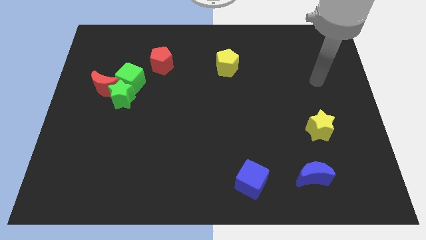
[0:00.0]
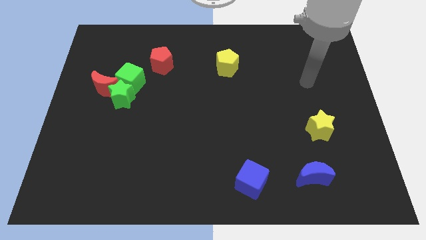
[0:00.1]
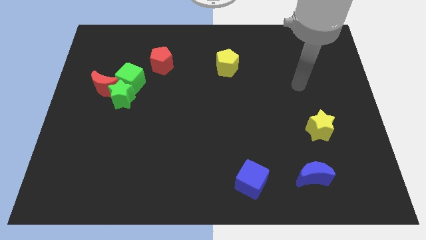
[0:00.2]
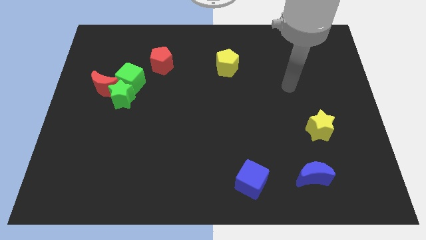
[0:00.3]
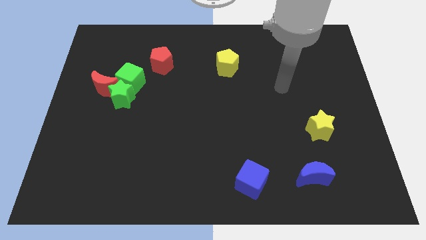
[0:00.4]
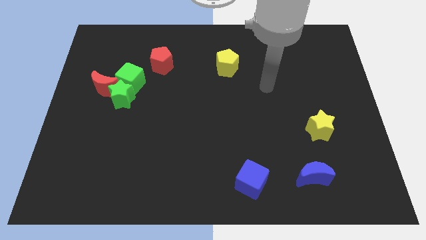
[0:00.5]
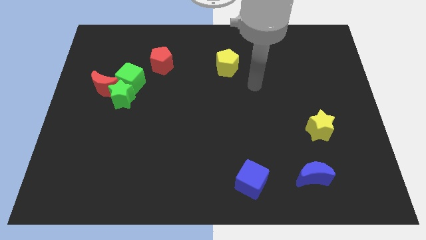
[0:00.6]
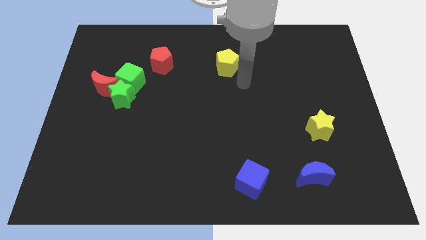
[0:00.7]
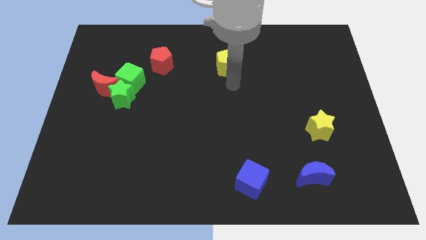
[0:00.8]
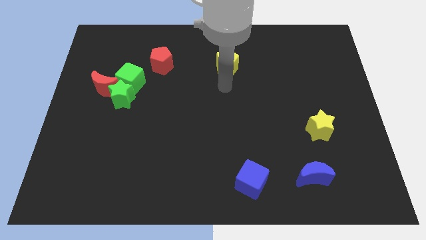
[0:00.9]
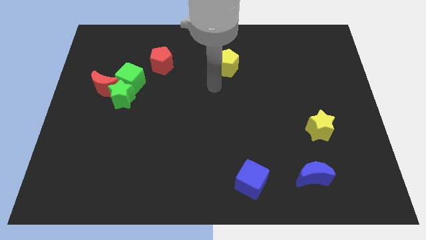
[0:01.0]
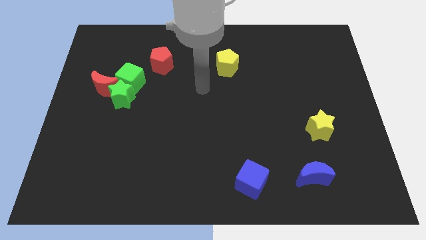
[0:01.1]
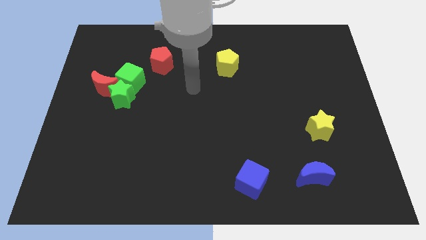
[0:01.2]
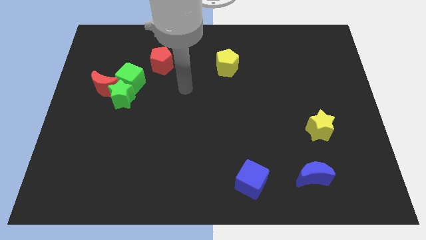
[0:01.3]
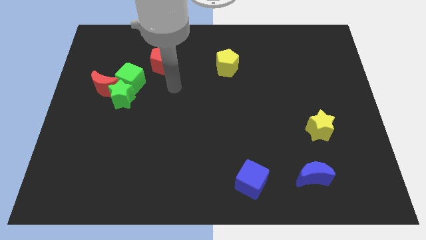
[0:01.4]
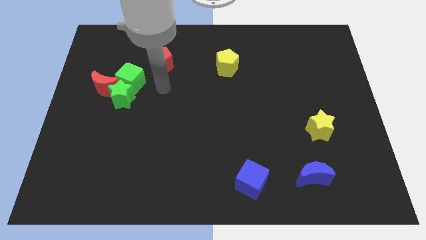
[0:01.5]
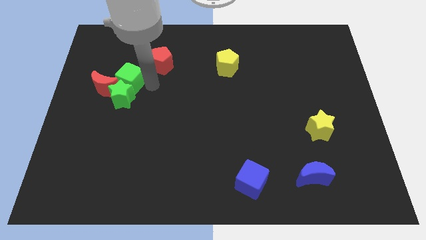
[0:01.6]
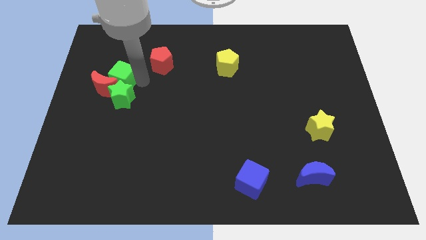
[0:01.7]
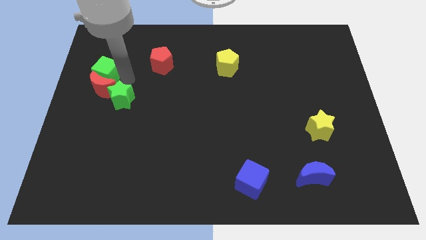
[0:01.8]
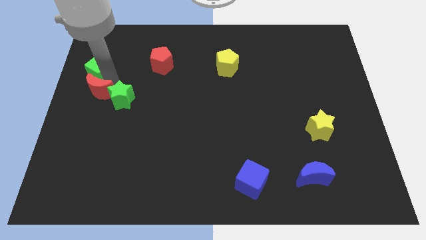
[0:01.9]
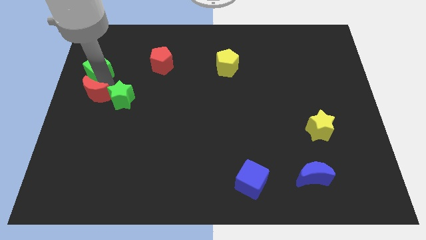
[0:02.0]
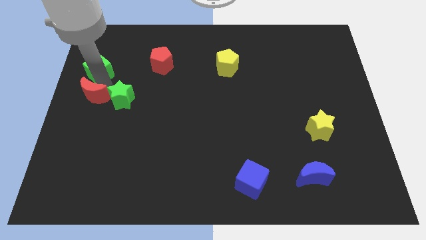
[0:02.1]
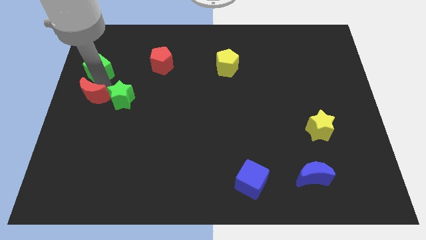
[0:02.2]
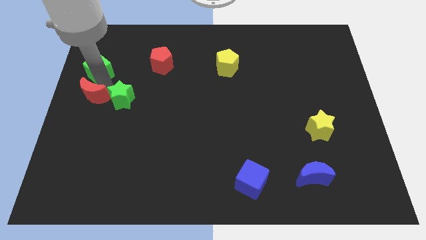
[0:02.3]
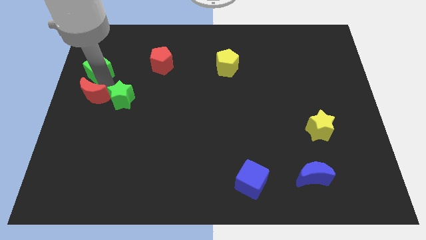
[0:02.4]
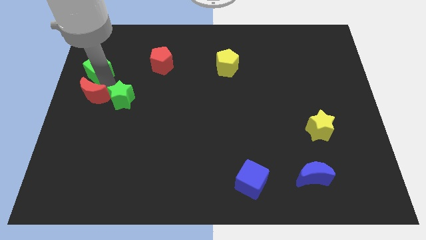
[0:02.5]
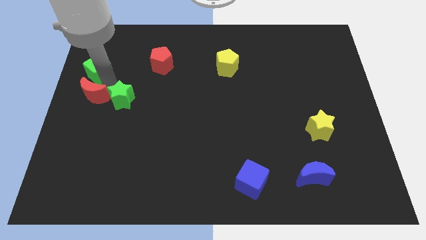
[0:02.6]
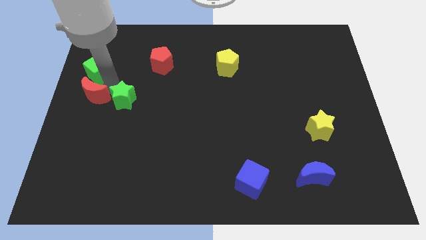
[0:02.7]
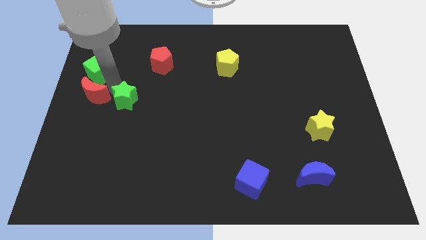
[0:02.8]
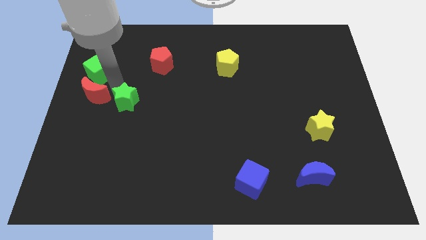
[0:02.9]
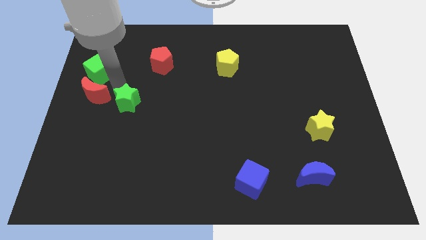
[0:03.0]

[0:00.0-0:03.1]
pull the green star apart from the green cube and red moon

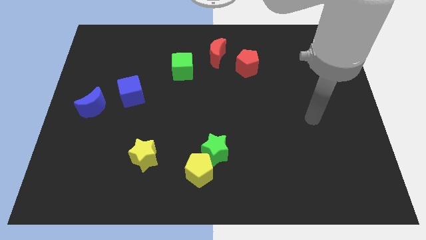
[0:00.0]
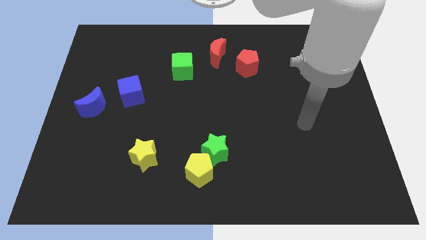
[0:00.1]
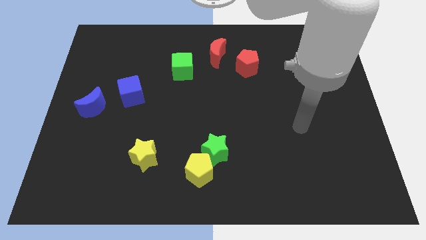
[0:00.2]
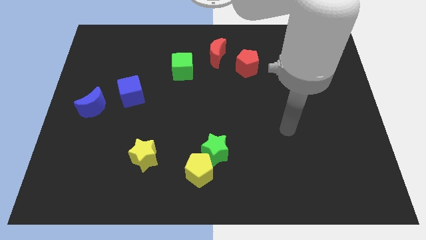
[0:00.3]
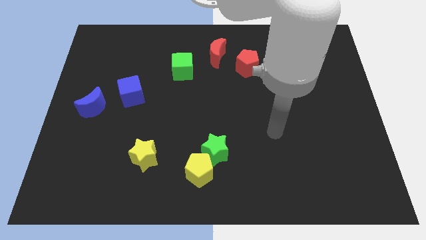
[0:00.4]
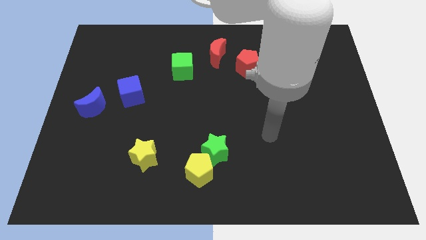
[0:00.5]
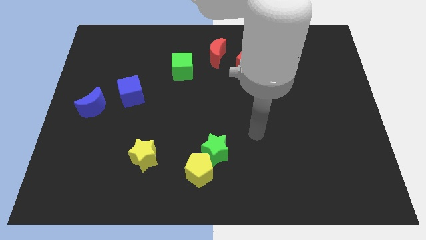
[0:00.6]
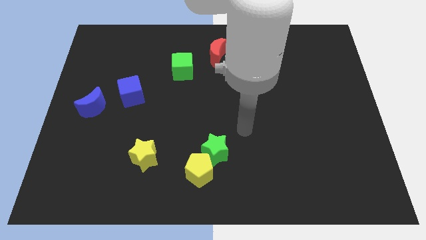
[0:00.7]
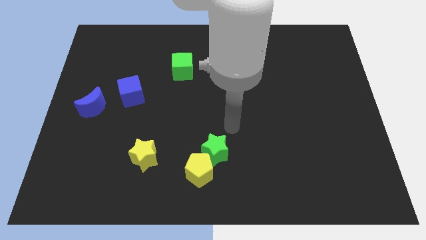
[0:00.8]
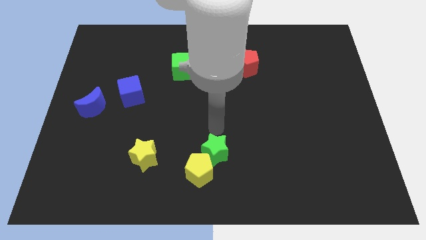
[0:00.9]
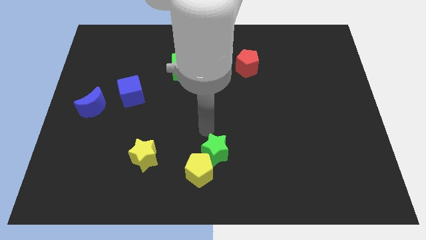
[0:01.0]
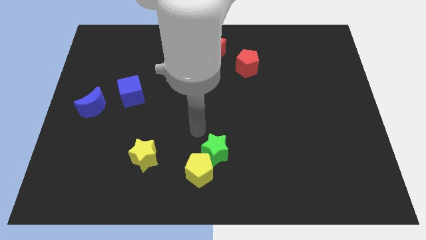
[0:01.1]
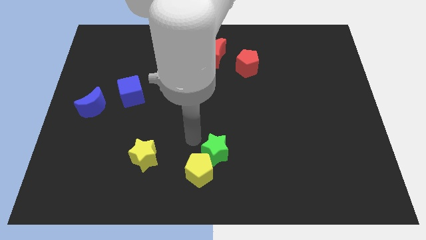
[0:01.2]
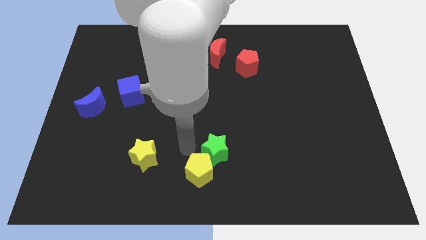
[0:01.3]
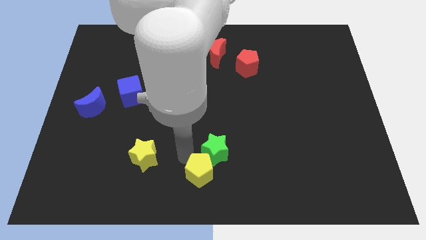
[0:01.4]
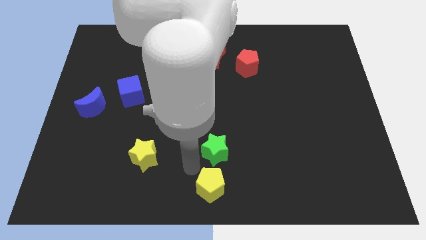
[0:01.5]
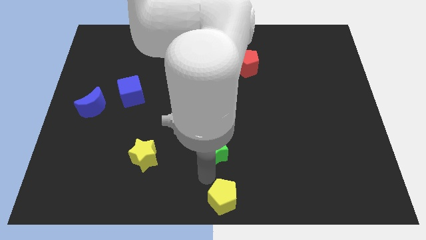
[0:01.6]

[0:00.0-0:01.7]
separate the green star from the yellow pentagon

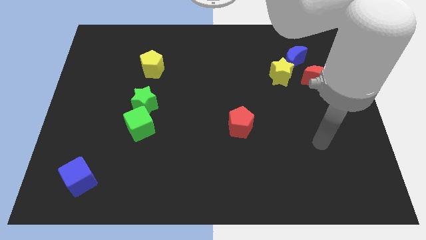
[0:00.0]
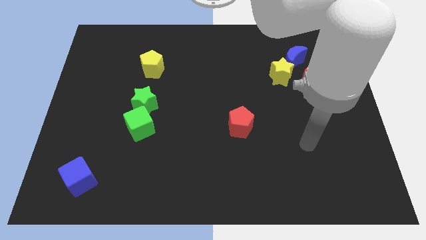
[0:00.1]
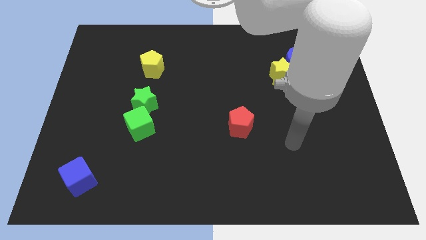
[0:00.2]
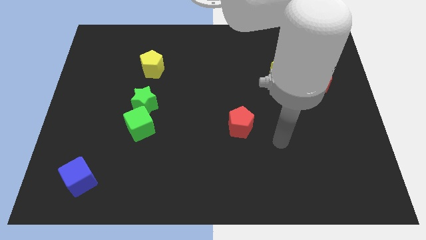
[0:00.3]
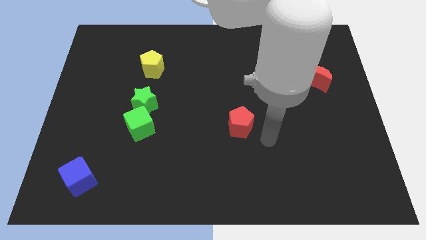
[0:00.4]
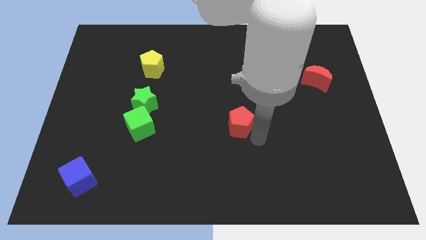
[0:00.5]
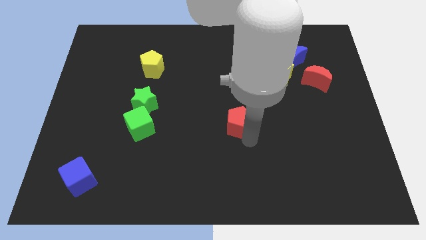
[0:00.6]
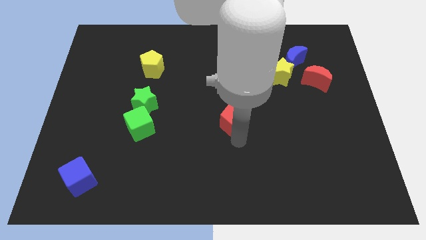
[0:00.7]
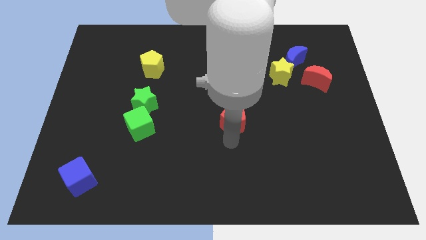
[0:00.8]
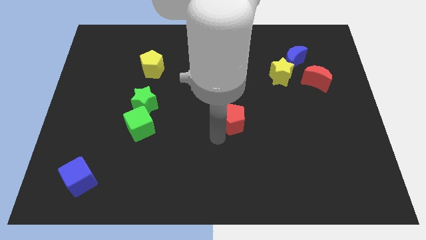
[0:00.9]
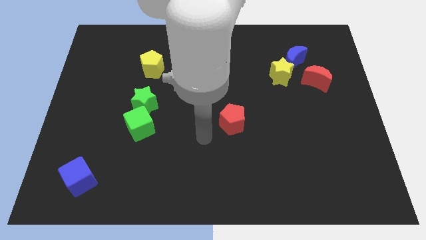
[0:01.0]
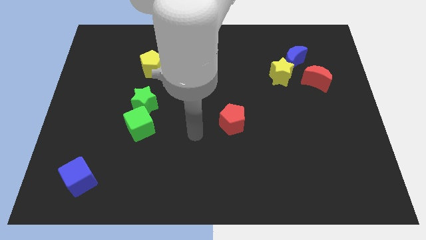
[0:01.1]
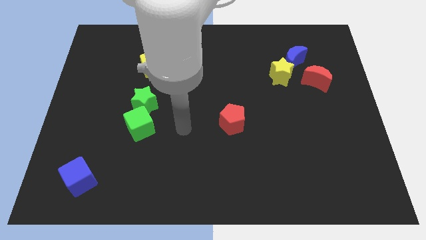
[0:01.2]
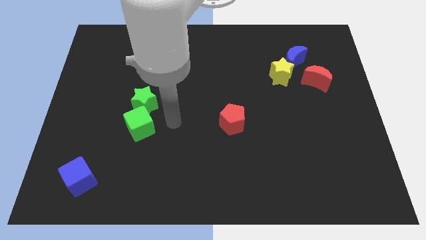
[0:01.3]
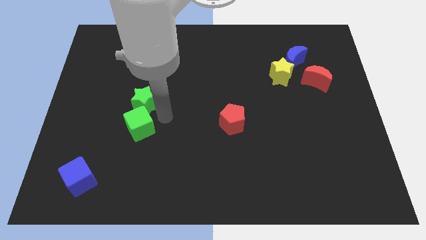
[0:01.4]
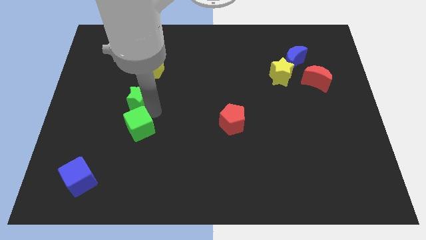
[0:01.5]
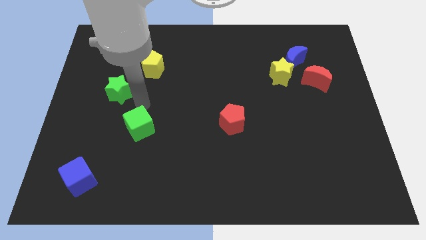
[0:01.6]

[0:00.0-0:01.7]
pull the green cube apart from the green star

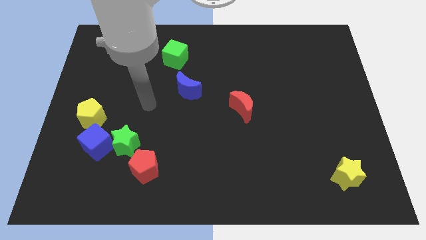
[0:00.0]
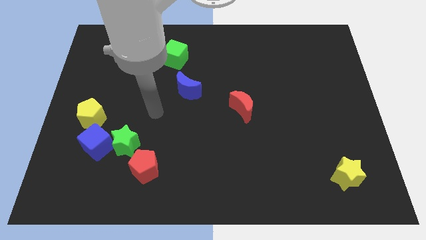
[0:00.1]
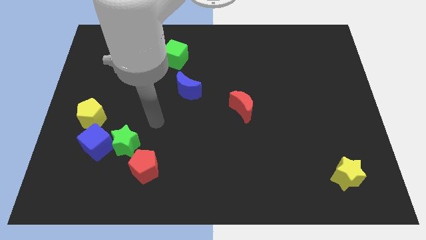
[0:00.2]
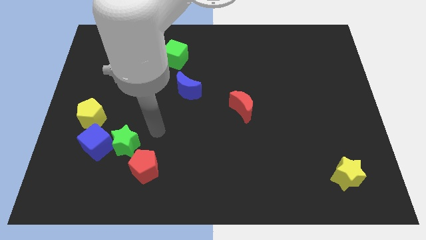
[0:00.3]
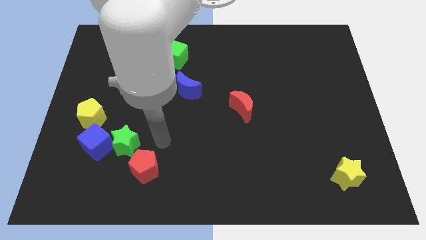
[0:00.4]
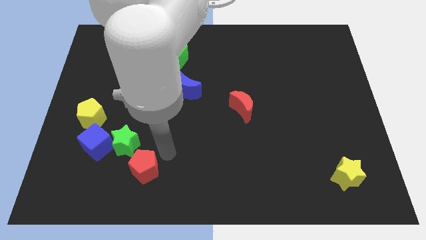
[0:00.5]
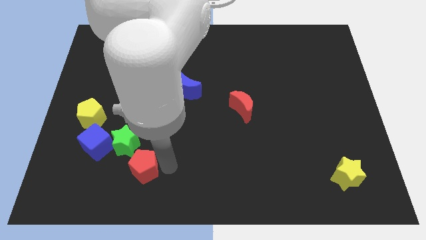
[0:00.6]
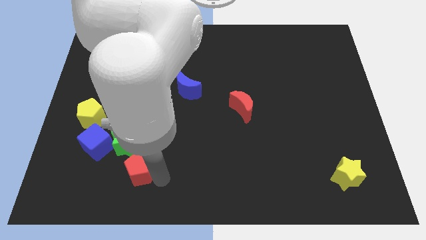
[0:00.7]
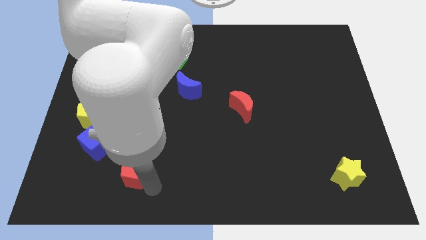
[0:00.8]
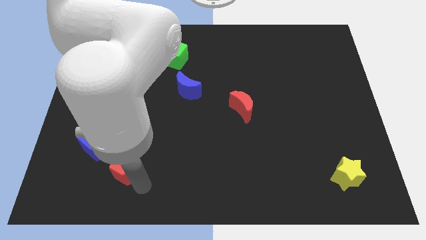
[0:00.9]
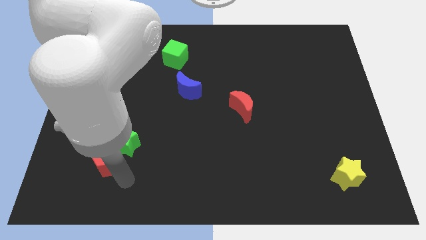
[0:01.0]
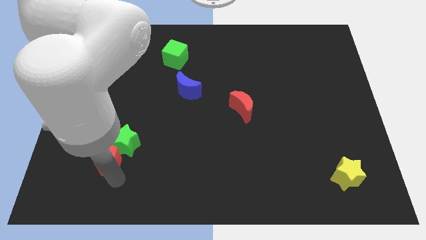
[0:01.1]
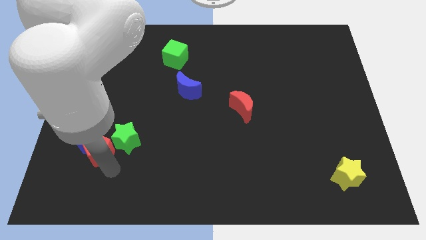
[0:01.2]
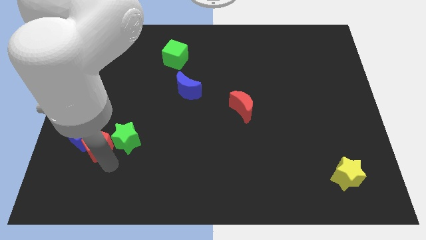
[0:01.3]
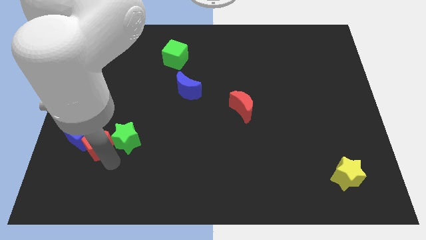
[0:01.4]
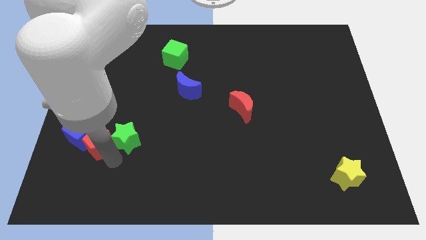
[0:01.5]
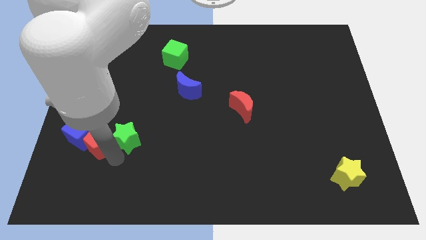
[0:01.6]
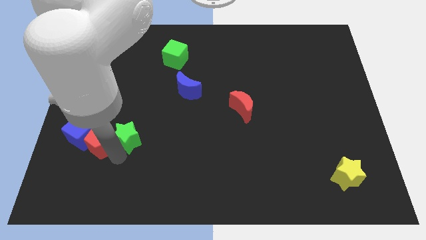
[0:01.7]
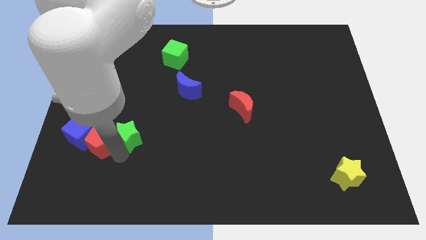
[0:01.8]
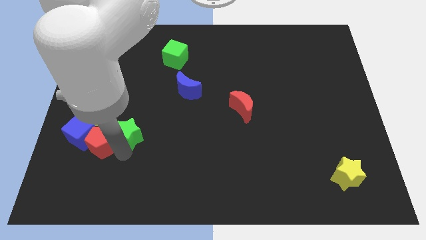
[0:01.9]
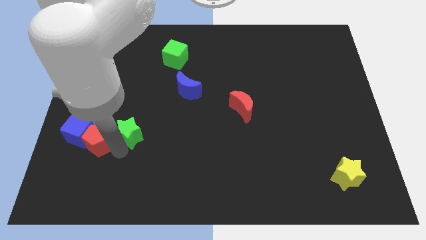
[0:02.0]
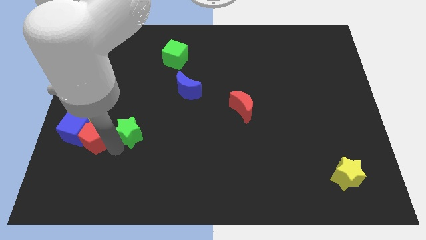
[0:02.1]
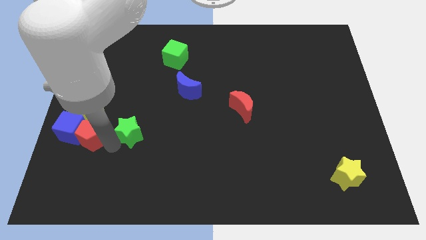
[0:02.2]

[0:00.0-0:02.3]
pull the green star apart from the blue cube and red pentagon

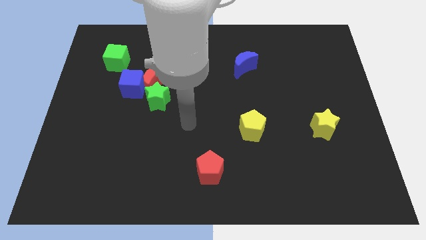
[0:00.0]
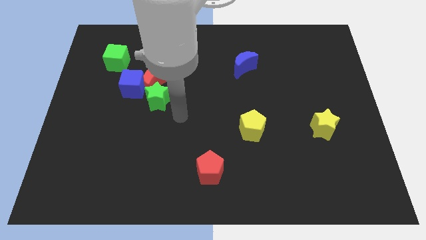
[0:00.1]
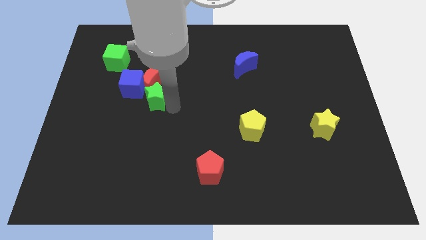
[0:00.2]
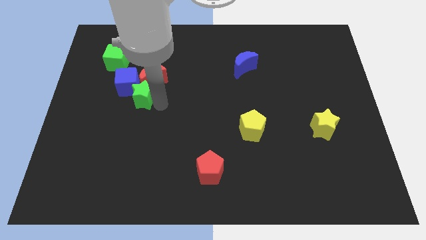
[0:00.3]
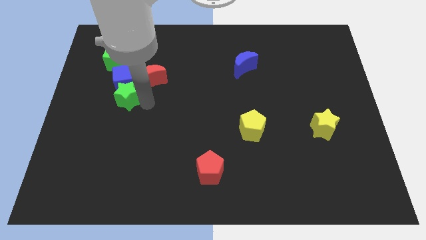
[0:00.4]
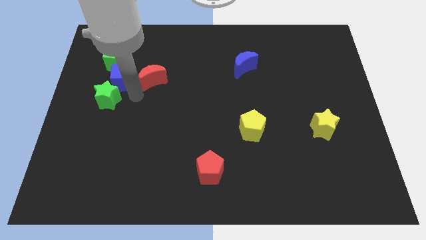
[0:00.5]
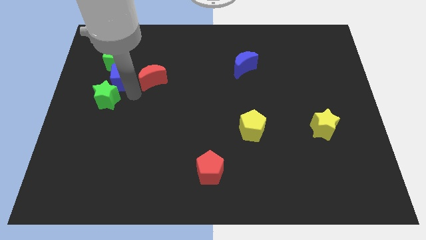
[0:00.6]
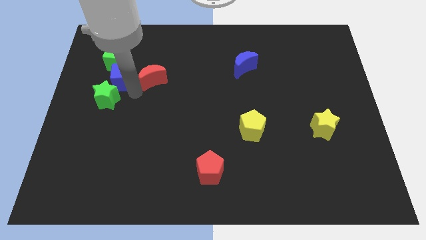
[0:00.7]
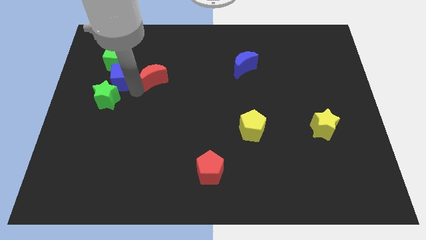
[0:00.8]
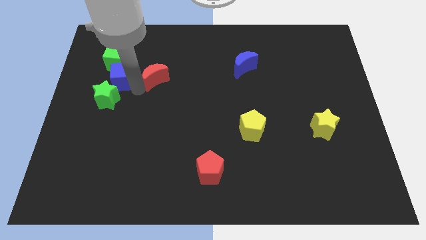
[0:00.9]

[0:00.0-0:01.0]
pull the red moon apart from the blue cube and green star
